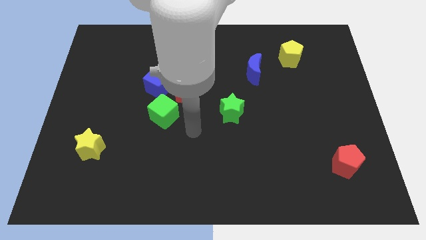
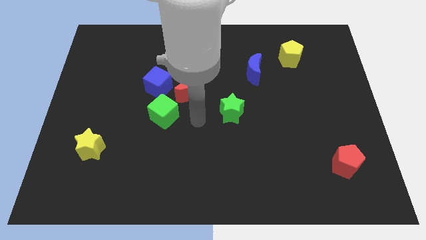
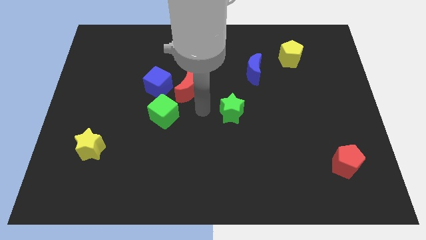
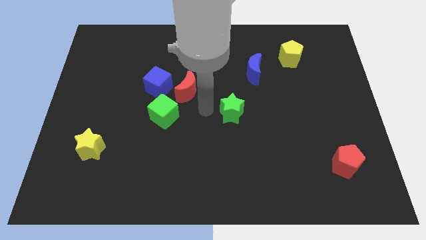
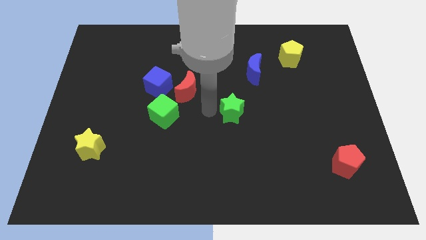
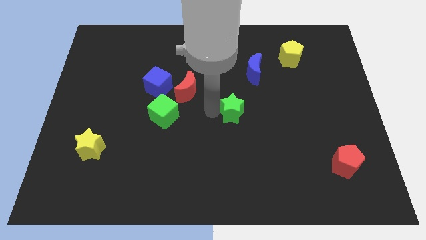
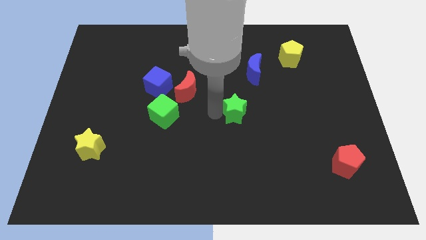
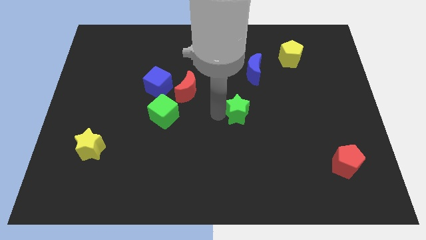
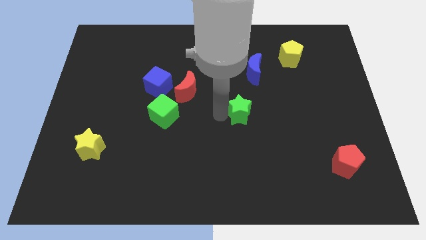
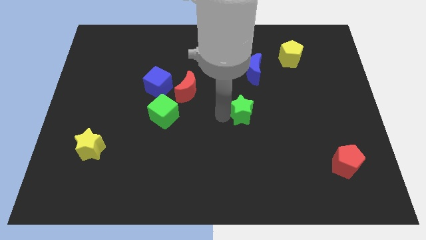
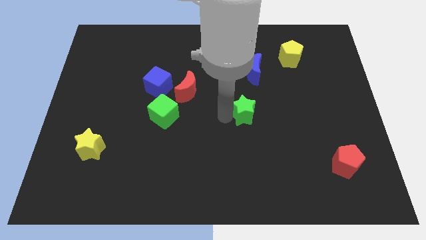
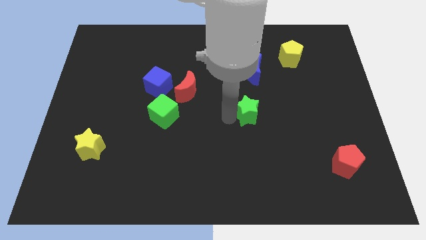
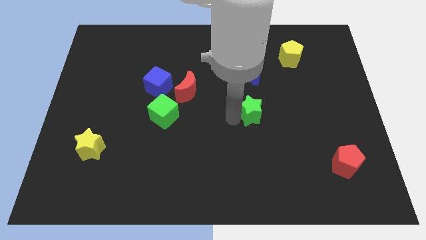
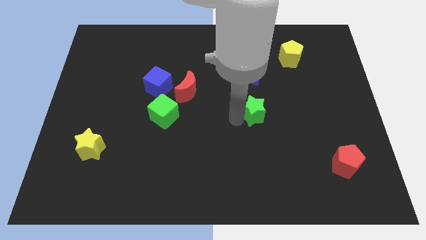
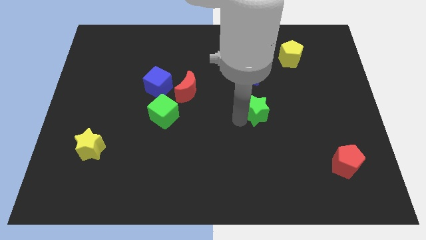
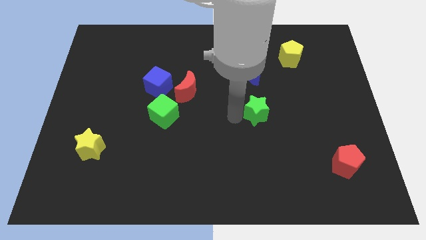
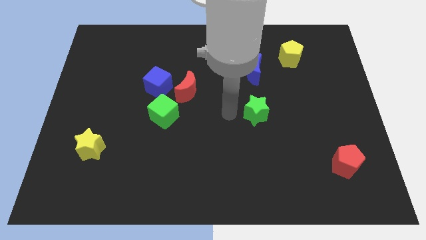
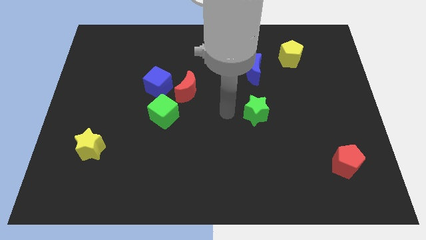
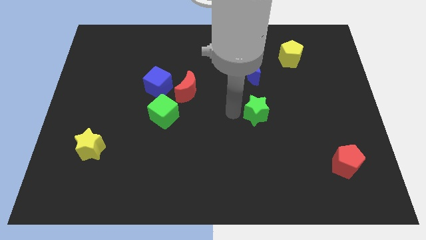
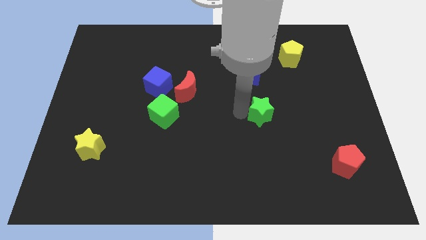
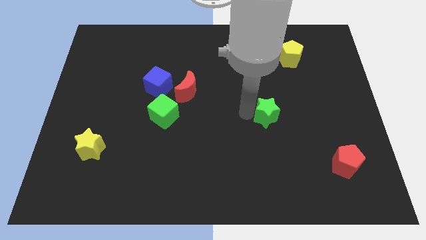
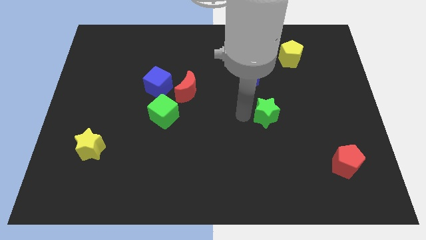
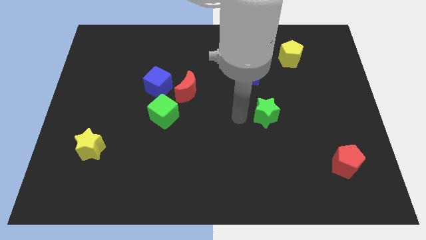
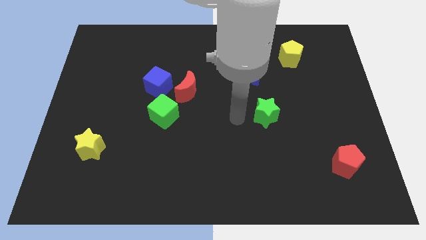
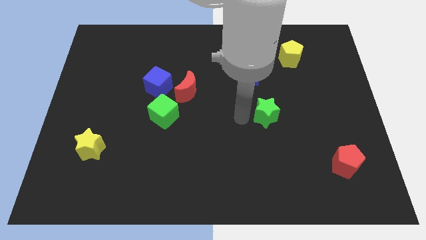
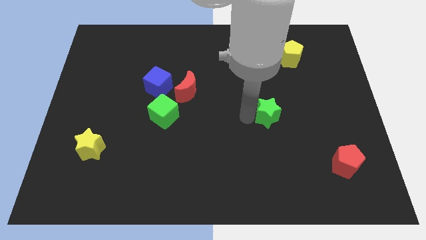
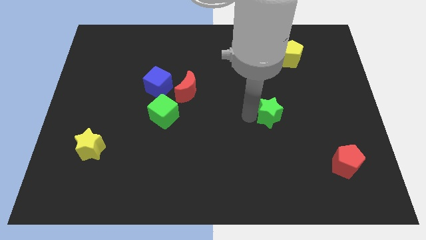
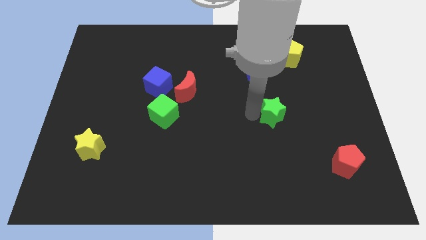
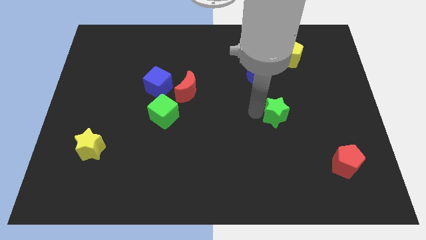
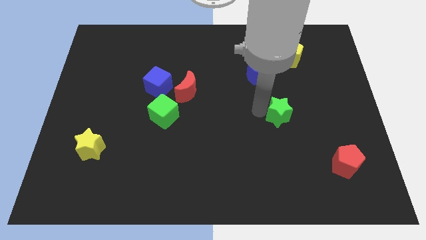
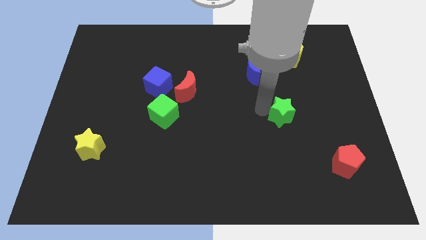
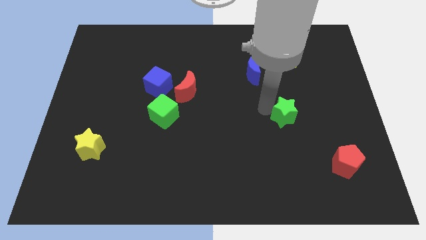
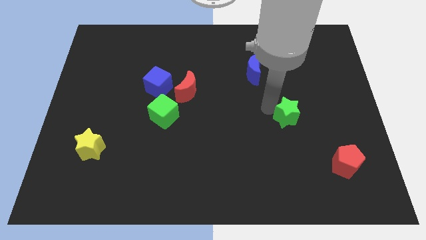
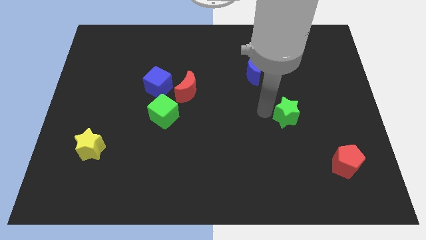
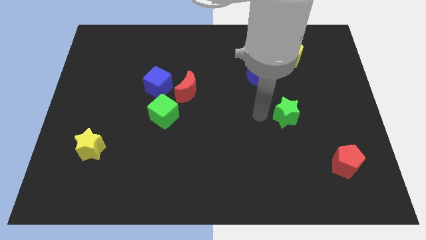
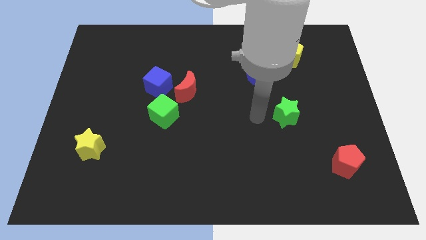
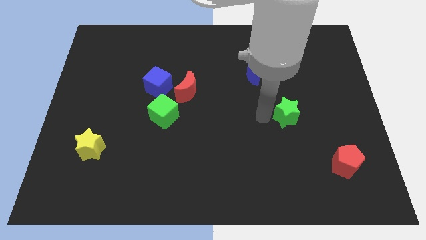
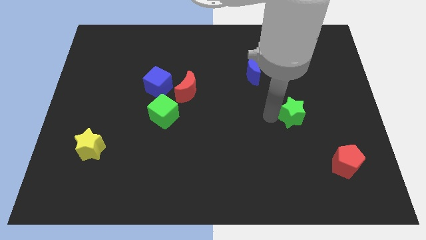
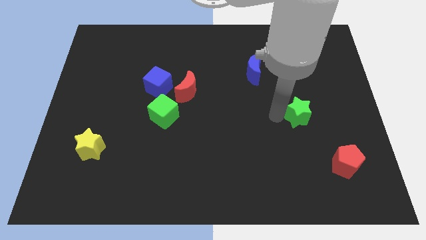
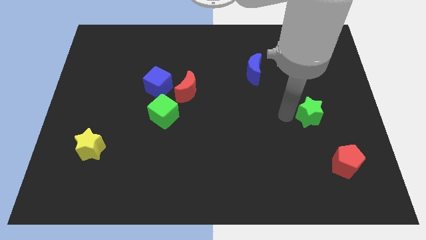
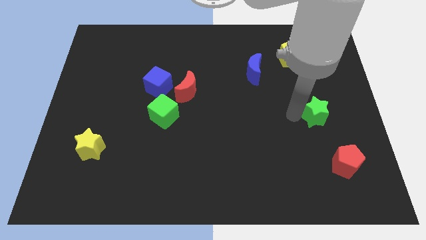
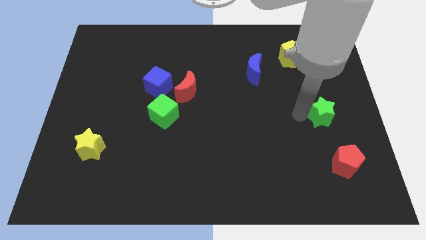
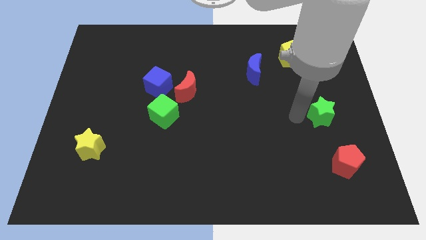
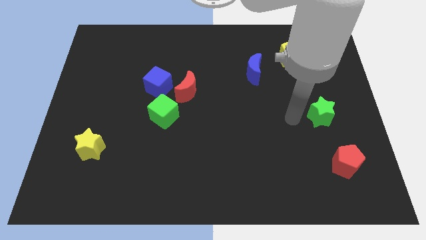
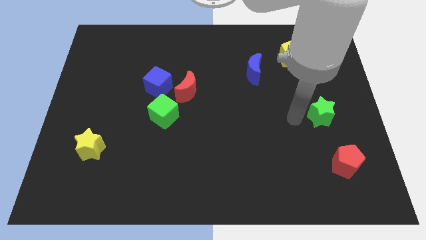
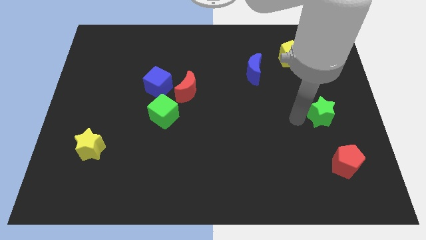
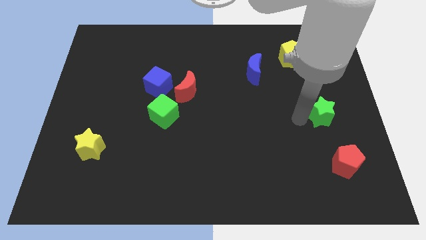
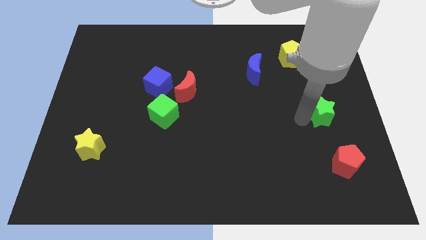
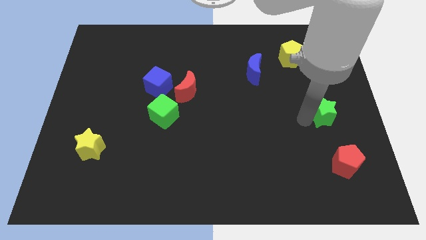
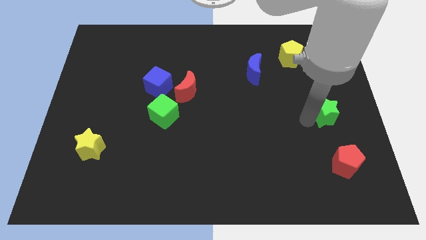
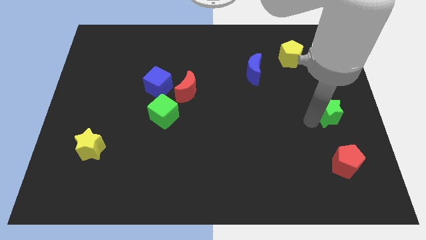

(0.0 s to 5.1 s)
put the green star to the right side of the board

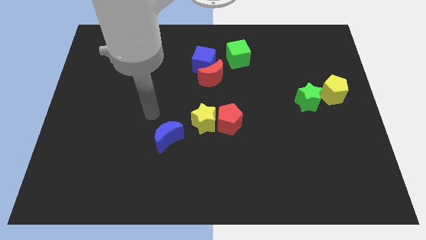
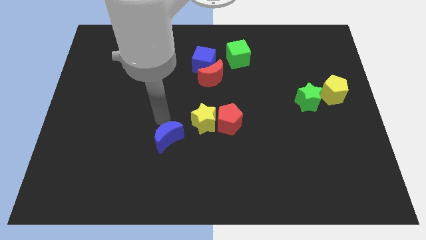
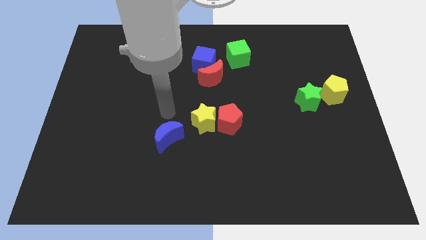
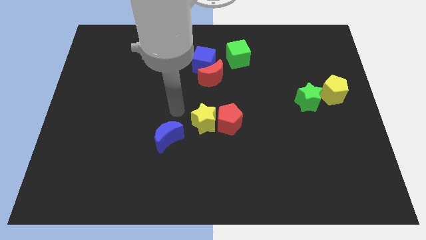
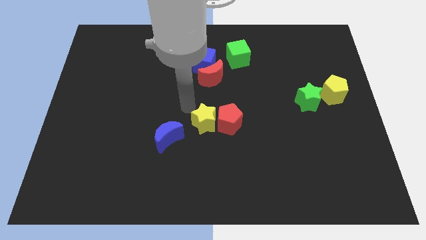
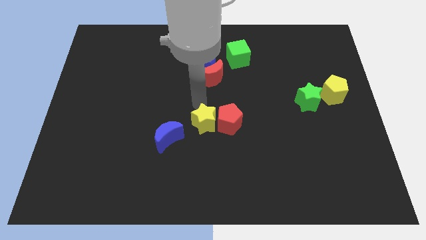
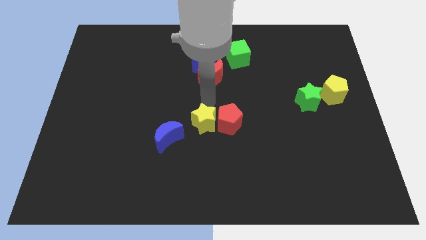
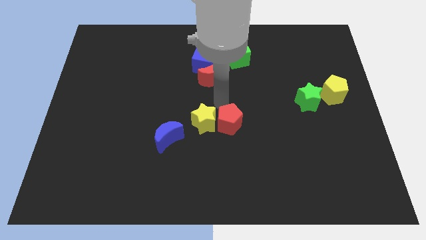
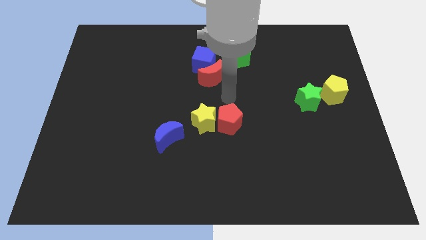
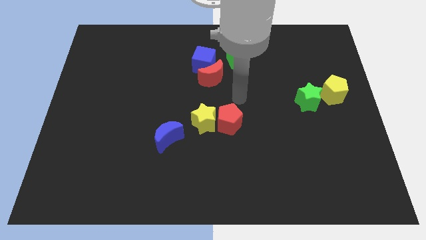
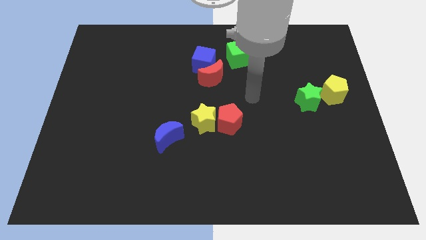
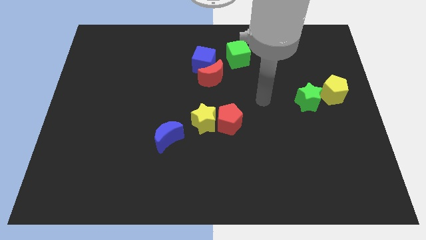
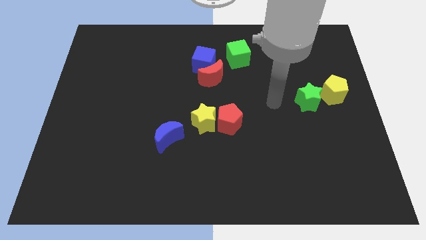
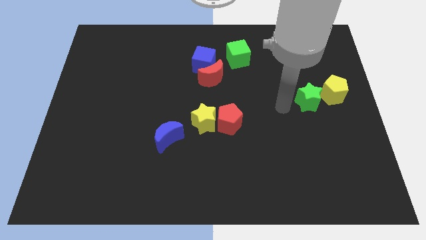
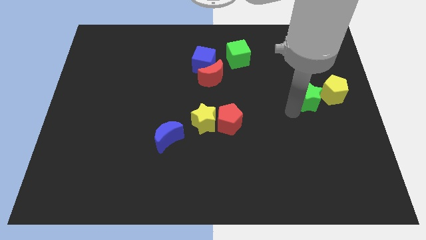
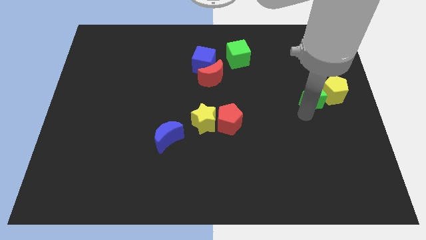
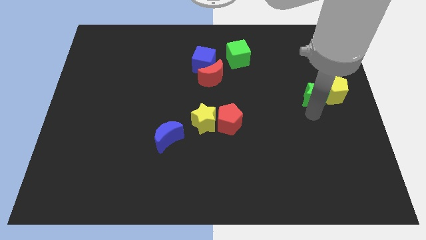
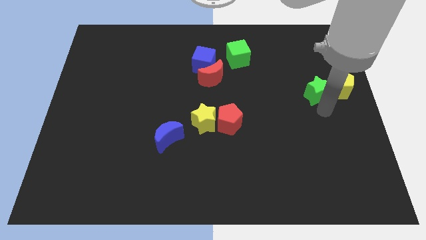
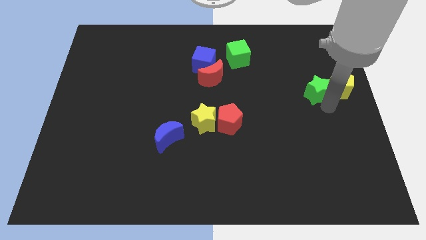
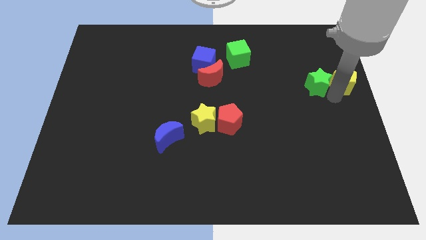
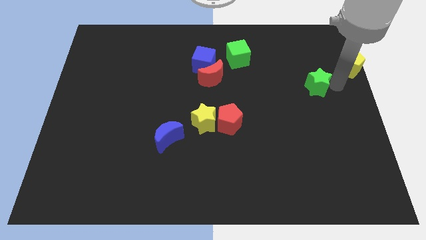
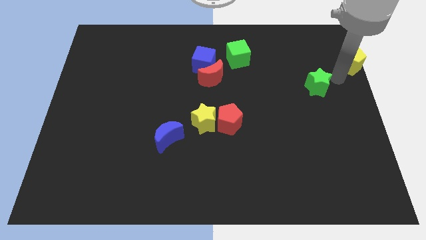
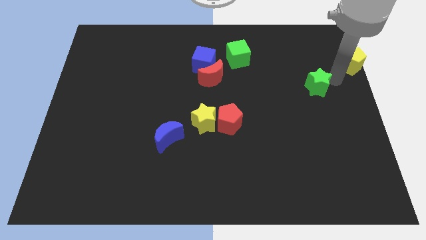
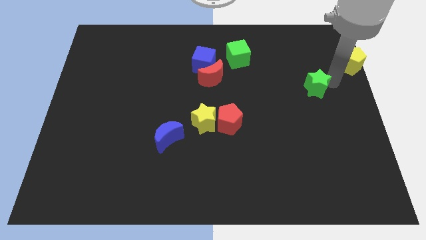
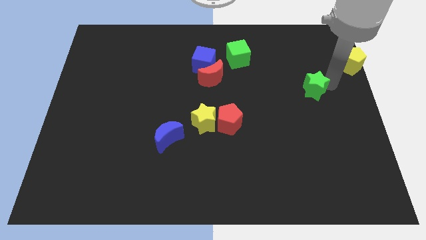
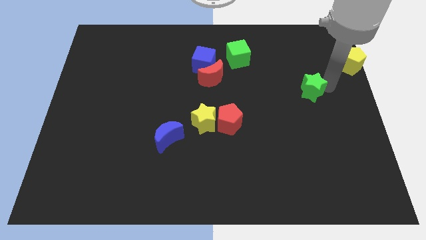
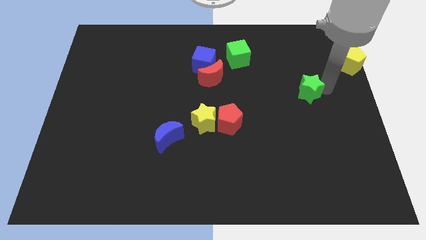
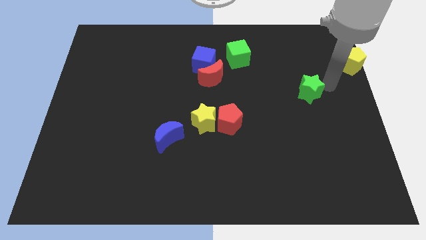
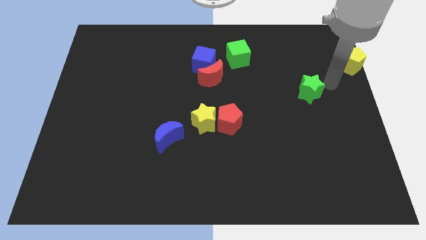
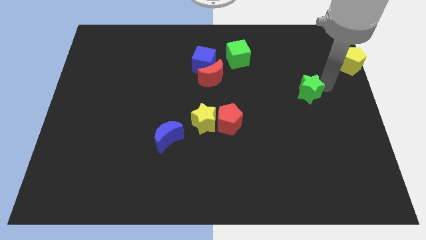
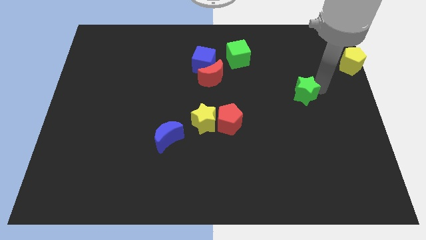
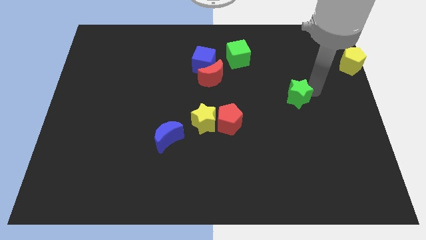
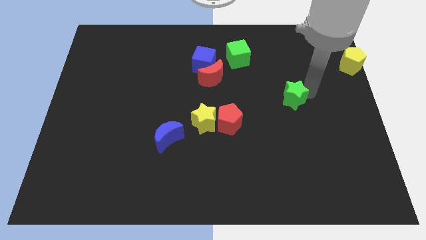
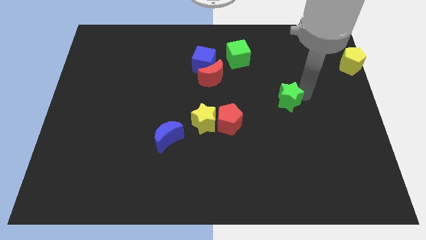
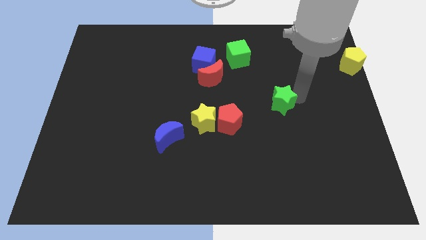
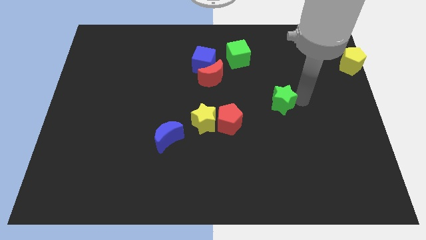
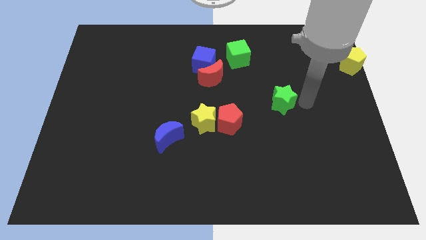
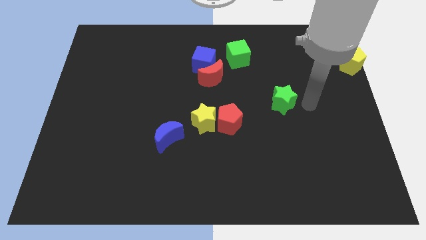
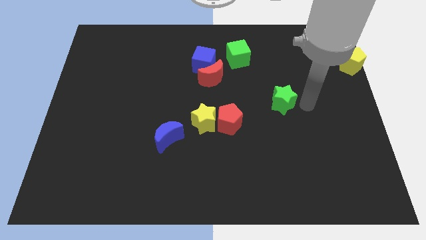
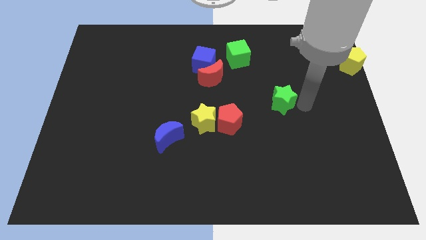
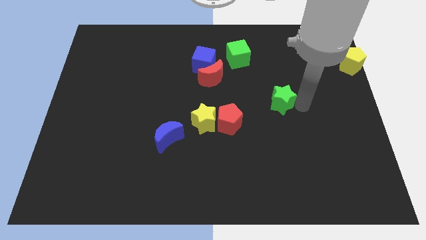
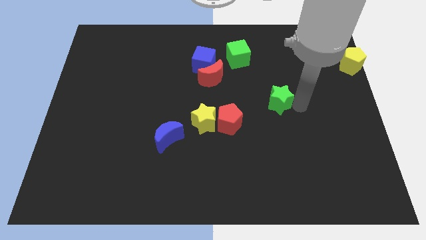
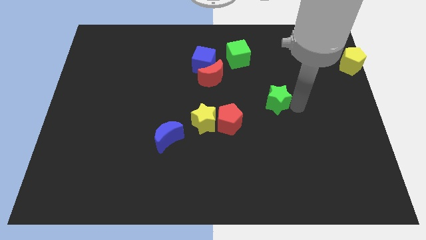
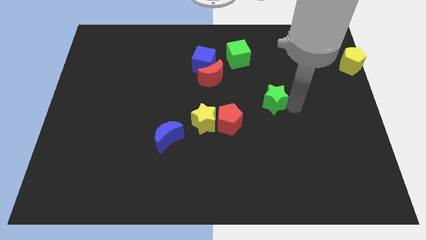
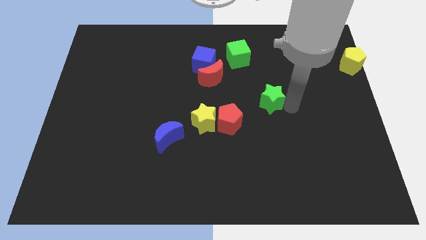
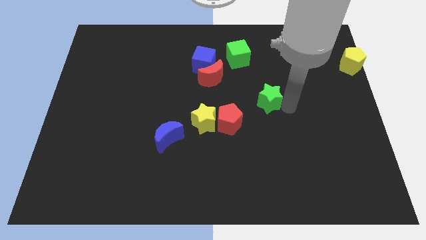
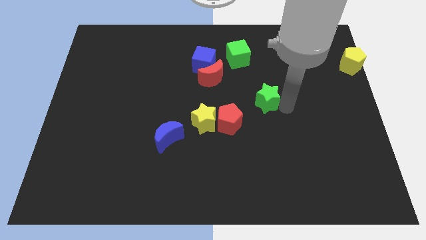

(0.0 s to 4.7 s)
put the green star to the middle
